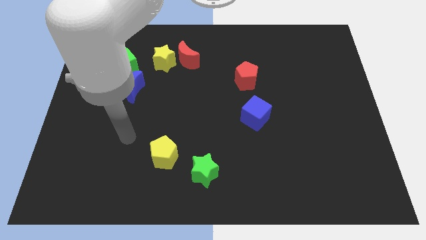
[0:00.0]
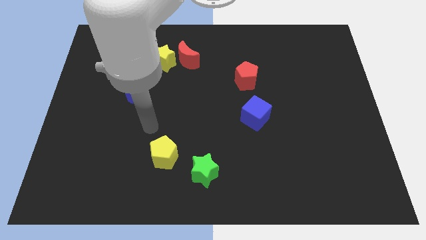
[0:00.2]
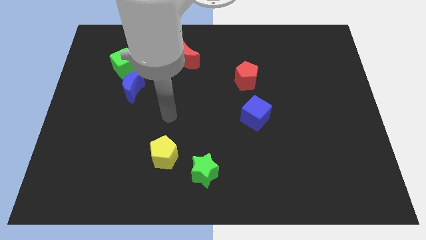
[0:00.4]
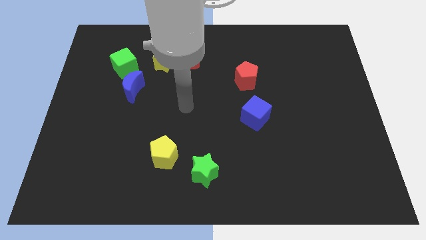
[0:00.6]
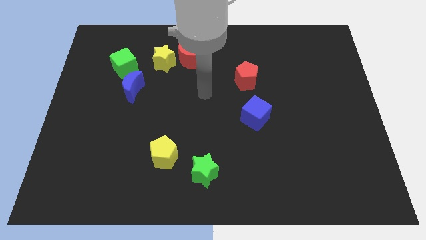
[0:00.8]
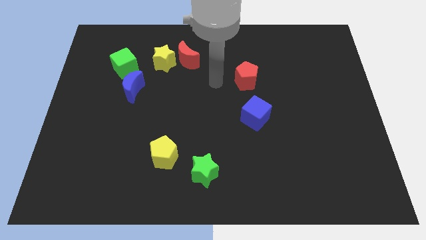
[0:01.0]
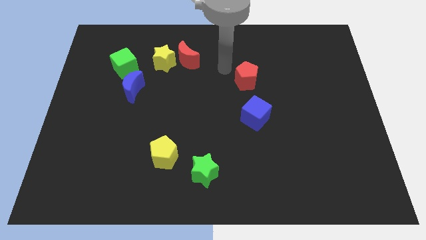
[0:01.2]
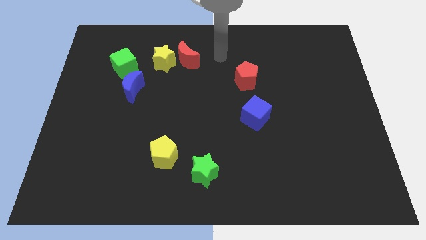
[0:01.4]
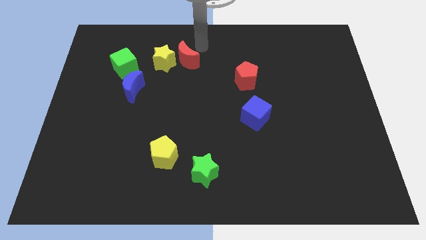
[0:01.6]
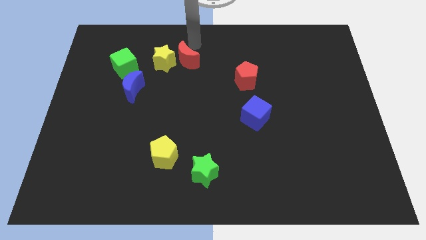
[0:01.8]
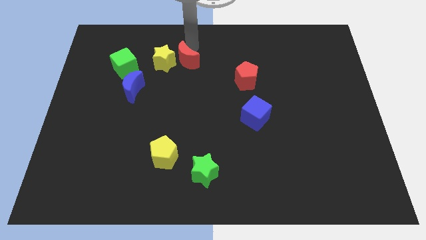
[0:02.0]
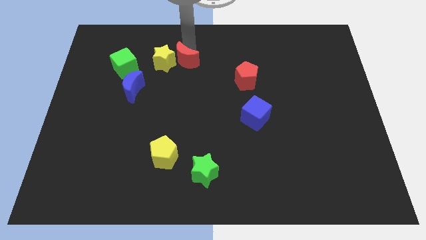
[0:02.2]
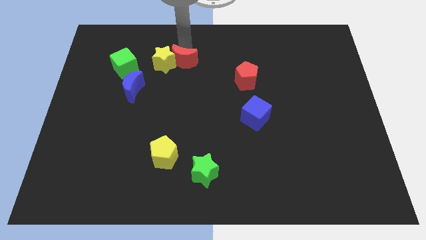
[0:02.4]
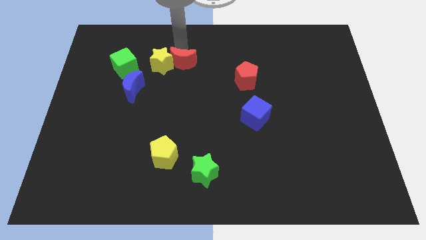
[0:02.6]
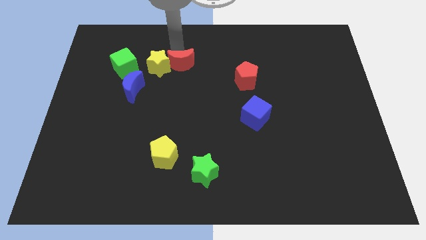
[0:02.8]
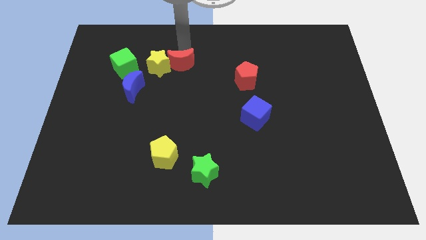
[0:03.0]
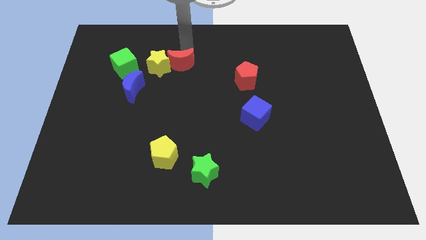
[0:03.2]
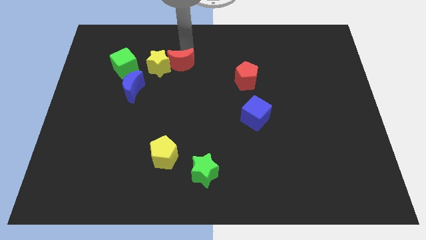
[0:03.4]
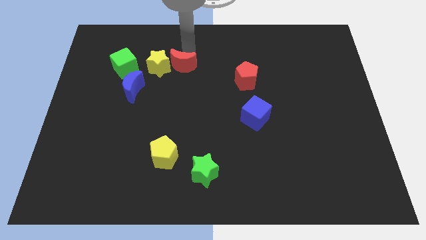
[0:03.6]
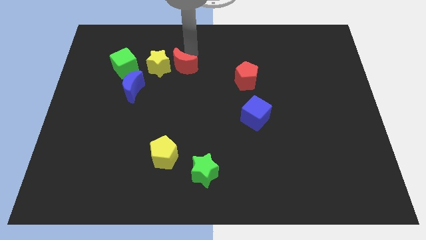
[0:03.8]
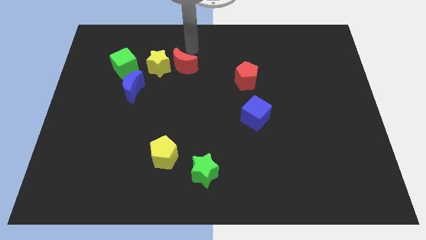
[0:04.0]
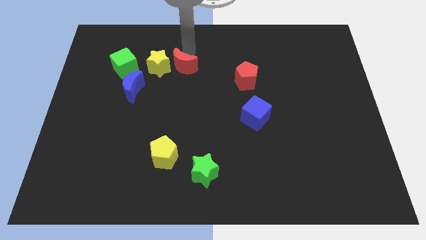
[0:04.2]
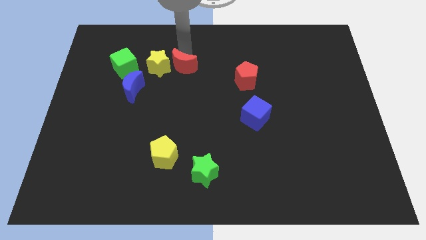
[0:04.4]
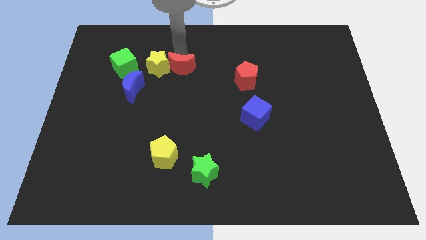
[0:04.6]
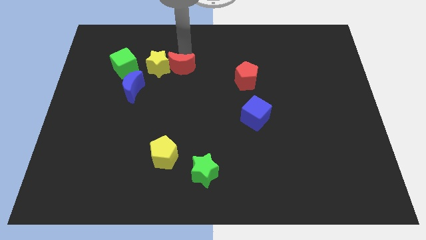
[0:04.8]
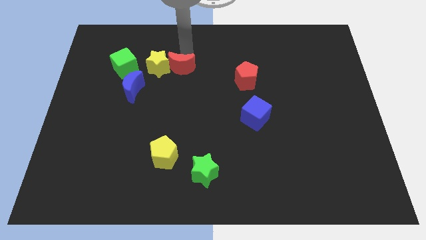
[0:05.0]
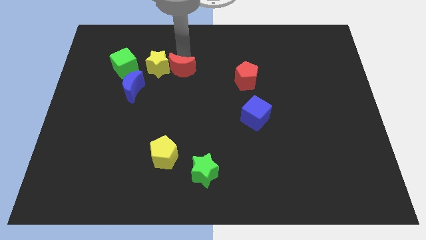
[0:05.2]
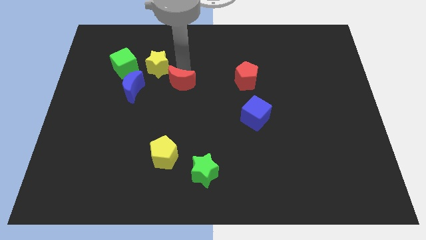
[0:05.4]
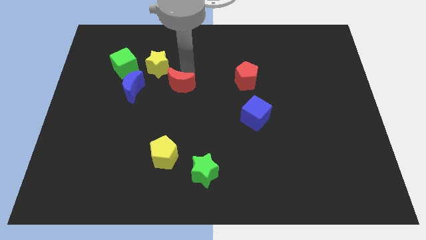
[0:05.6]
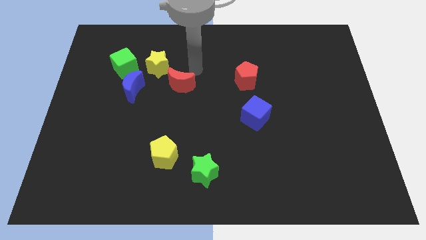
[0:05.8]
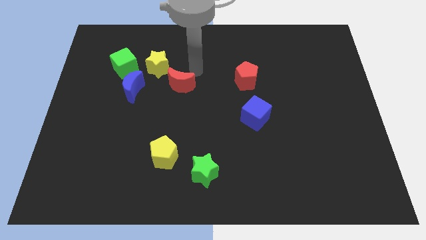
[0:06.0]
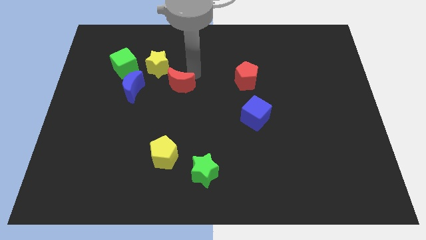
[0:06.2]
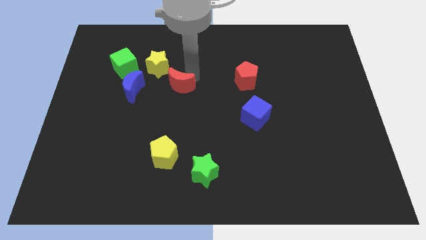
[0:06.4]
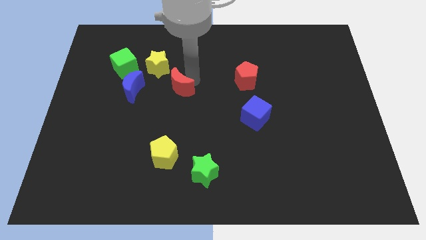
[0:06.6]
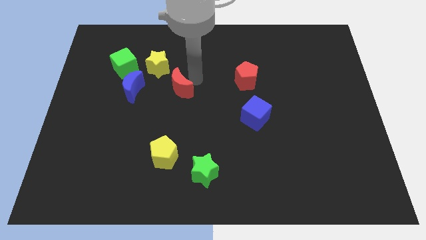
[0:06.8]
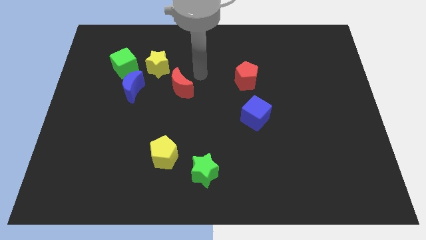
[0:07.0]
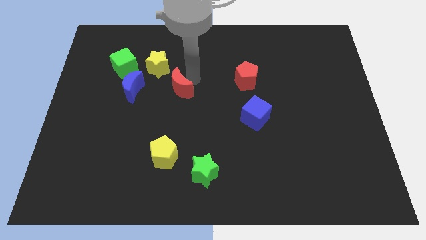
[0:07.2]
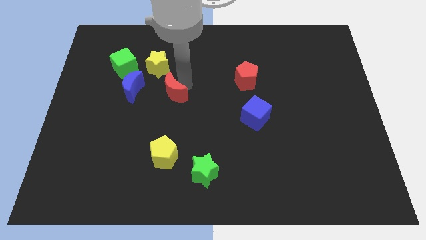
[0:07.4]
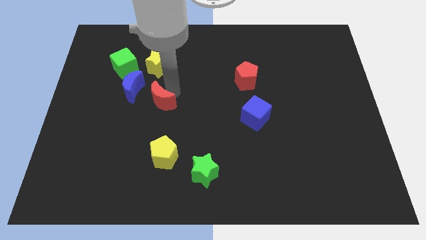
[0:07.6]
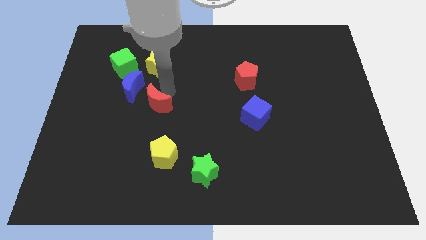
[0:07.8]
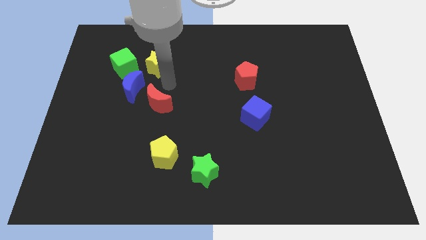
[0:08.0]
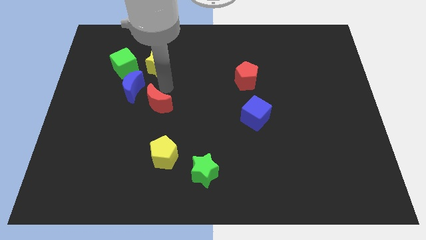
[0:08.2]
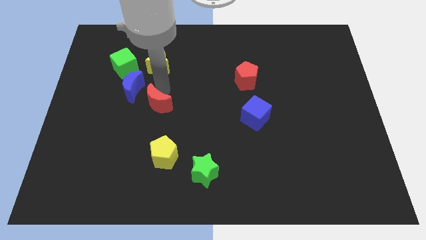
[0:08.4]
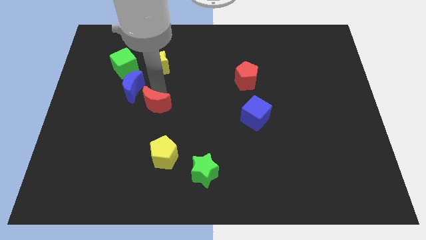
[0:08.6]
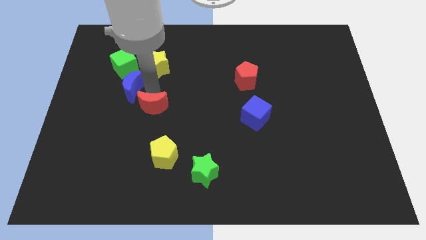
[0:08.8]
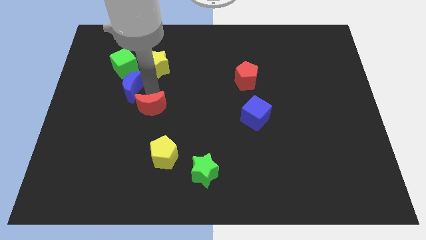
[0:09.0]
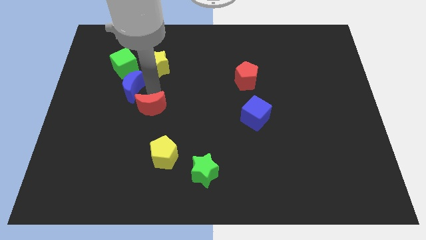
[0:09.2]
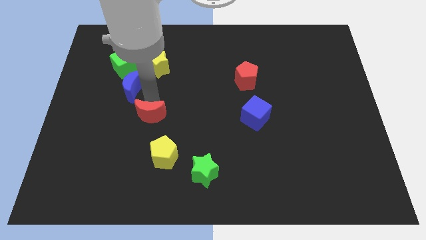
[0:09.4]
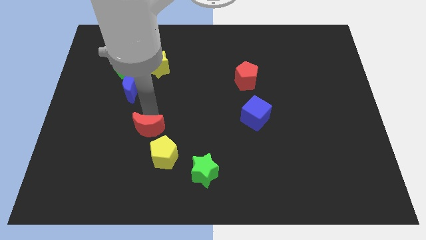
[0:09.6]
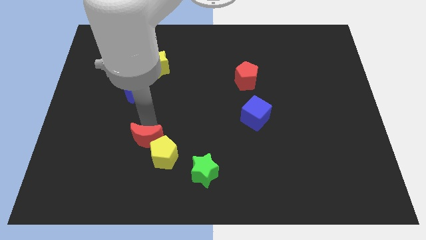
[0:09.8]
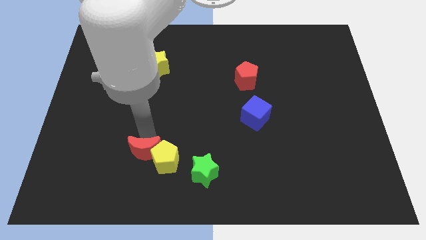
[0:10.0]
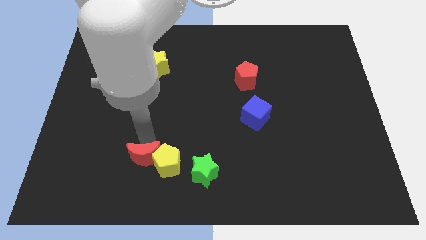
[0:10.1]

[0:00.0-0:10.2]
put the red moon to the left of the green star

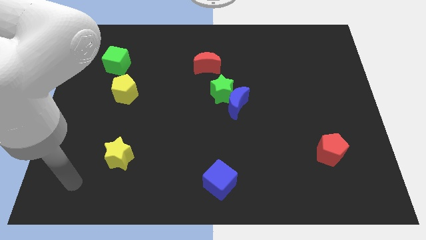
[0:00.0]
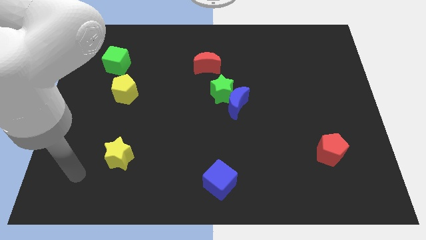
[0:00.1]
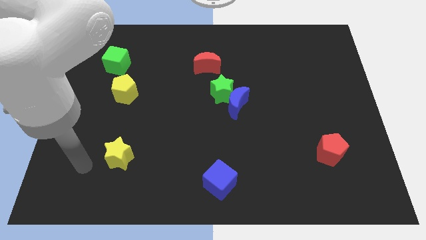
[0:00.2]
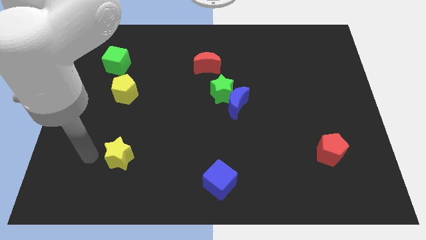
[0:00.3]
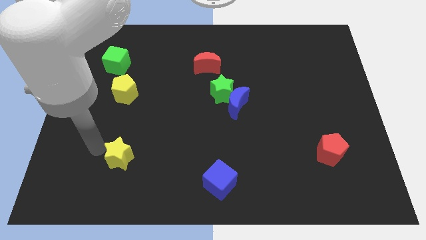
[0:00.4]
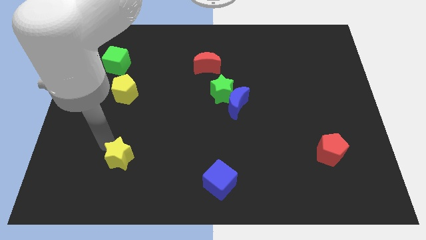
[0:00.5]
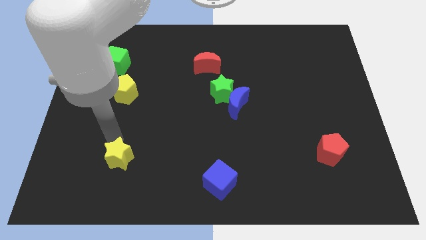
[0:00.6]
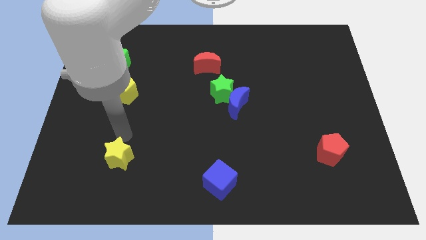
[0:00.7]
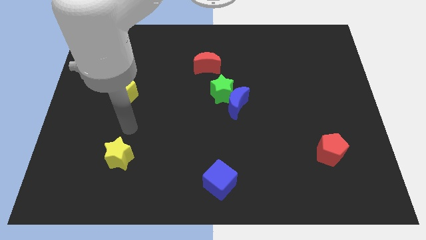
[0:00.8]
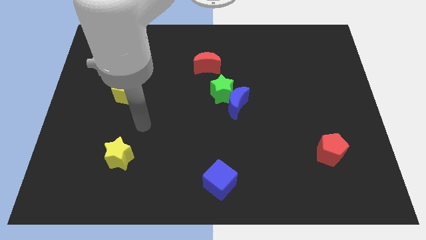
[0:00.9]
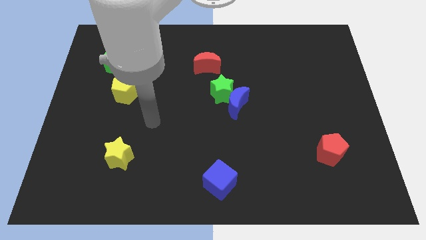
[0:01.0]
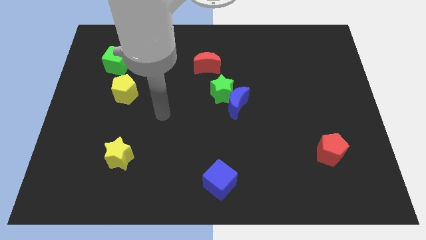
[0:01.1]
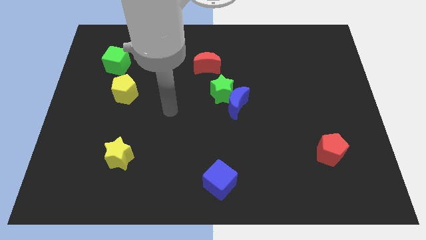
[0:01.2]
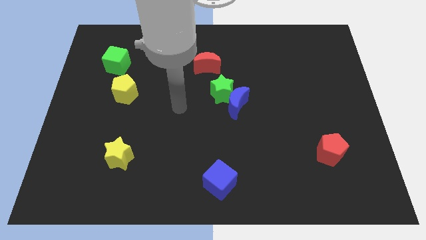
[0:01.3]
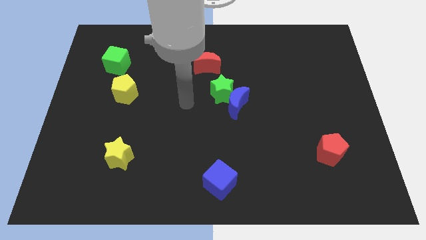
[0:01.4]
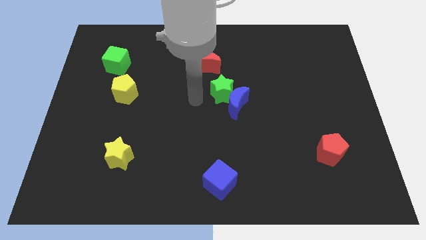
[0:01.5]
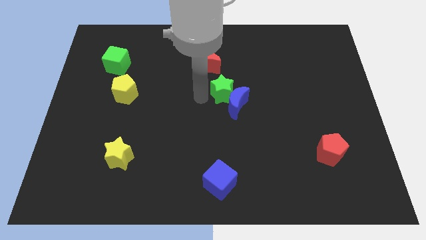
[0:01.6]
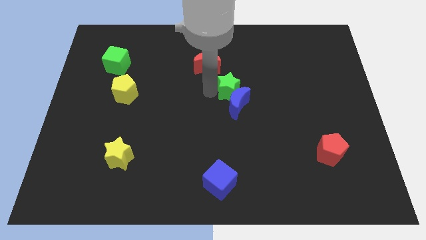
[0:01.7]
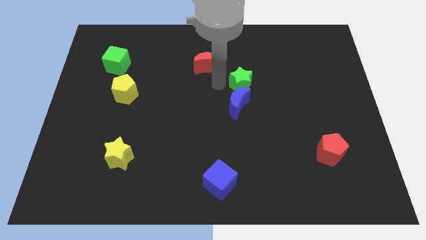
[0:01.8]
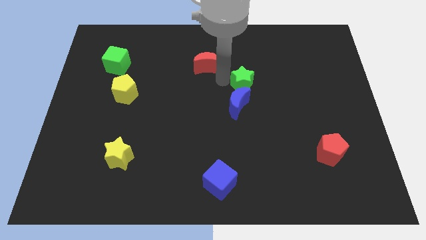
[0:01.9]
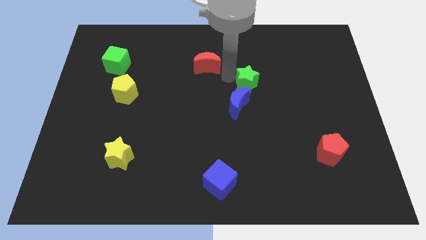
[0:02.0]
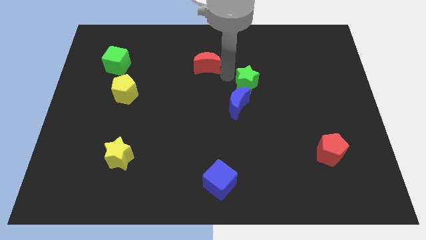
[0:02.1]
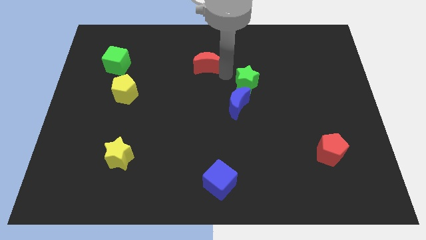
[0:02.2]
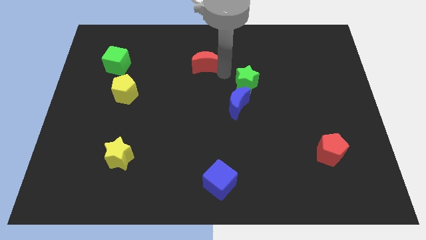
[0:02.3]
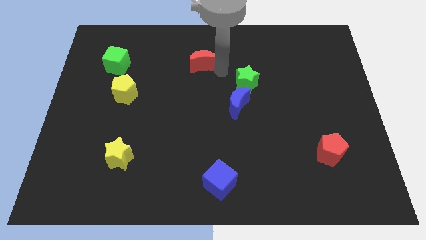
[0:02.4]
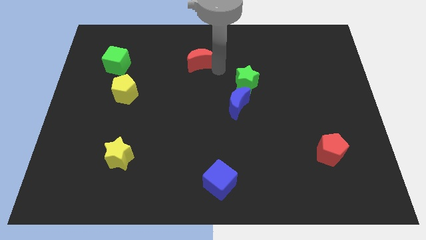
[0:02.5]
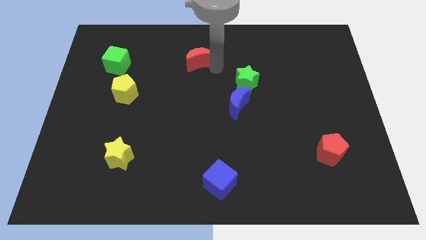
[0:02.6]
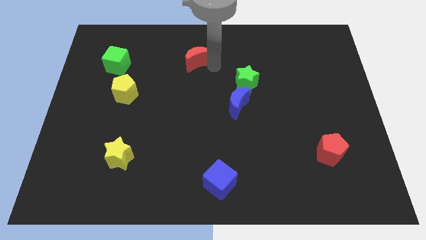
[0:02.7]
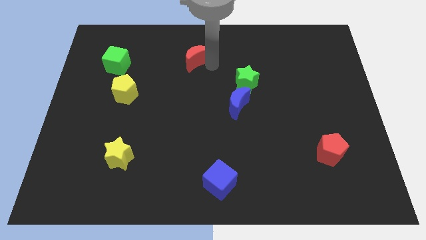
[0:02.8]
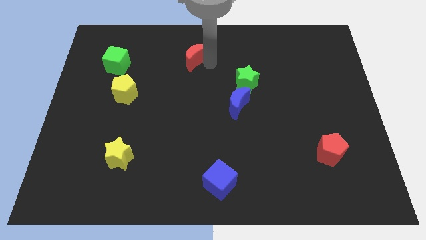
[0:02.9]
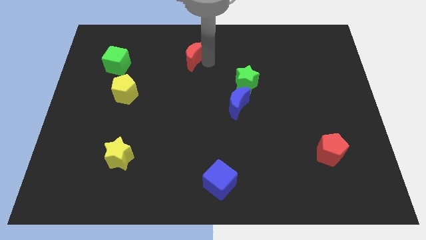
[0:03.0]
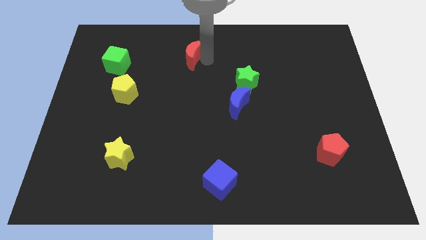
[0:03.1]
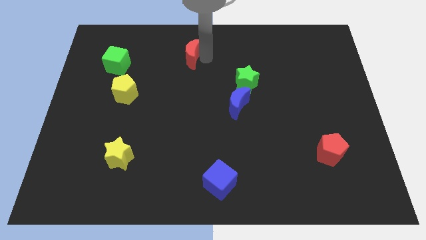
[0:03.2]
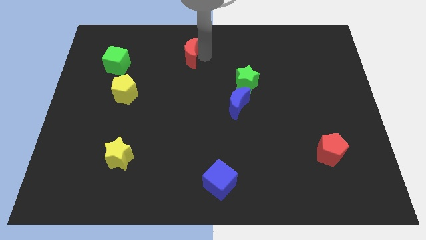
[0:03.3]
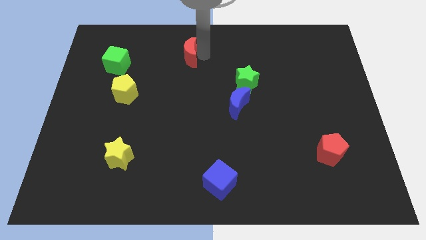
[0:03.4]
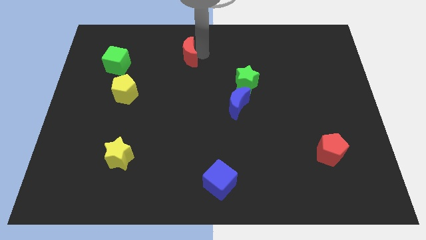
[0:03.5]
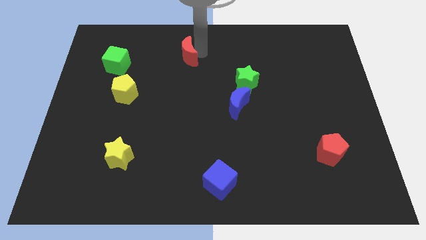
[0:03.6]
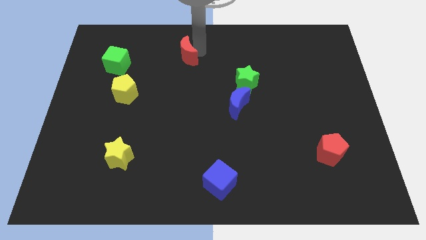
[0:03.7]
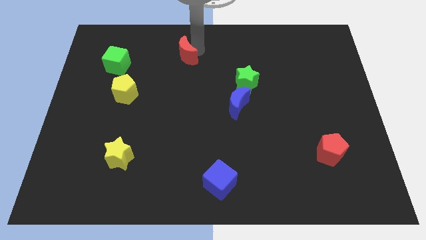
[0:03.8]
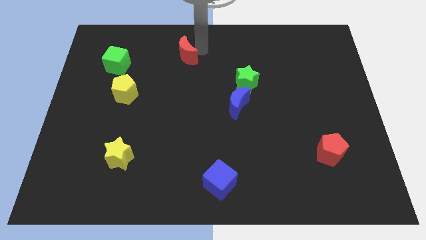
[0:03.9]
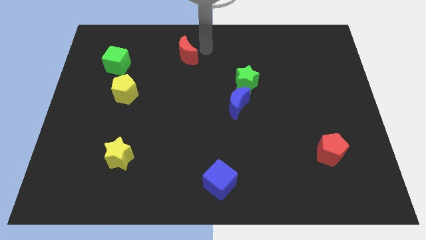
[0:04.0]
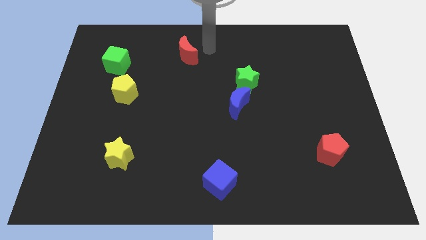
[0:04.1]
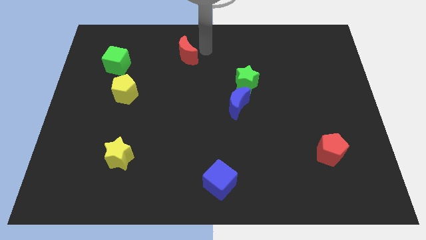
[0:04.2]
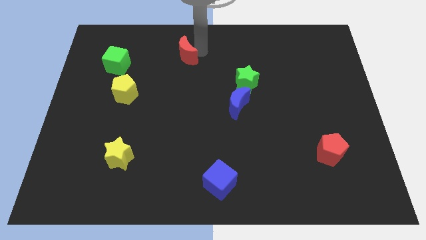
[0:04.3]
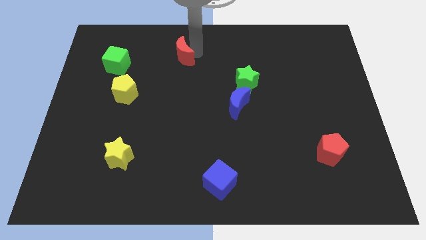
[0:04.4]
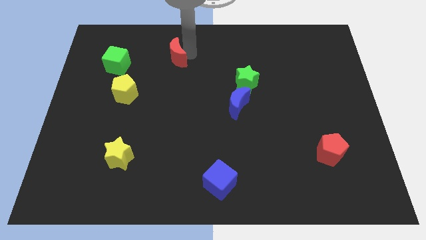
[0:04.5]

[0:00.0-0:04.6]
push the red moon to the right of the green cube
